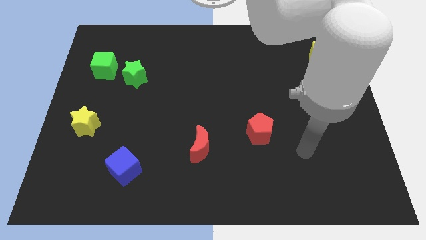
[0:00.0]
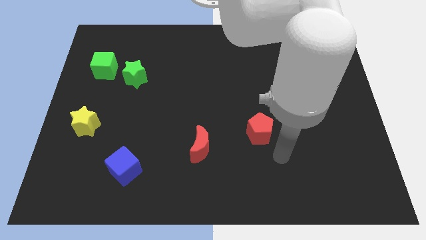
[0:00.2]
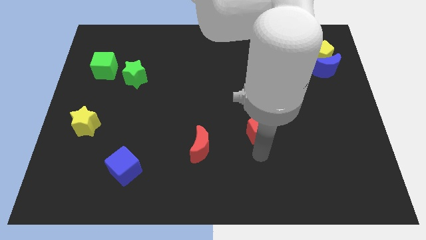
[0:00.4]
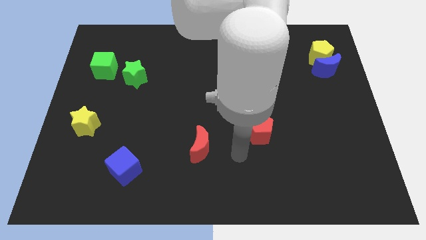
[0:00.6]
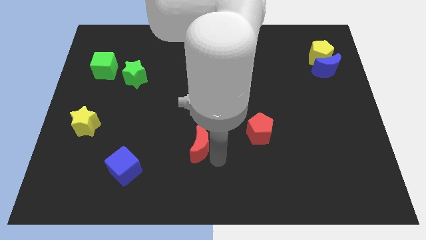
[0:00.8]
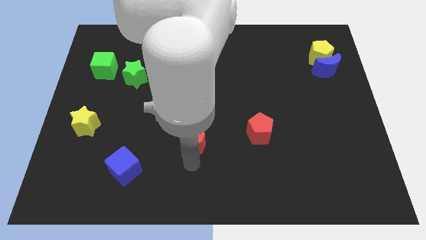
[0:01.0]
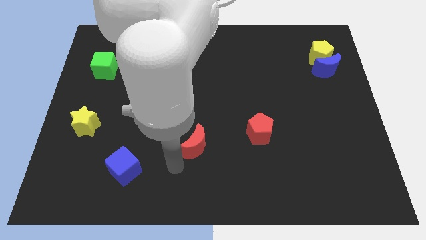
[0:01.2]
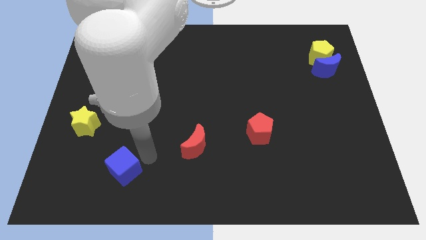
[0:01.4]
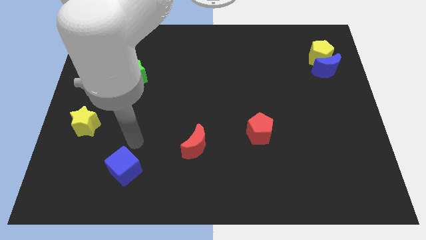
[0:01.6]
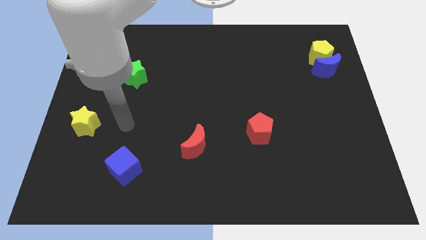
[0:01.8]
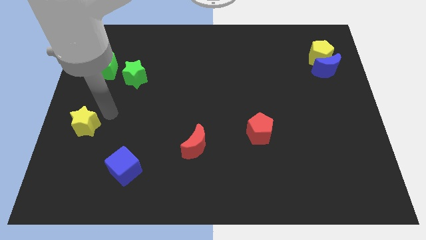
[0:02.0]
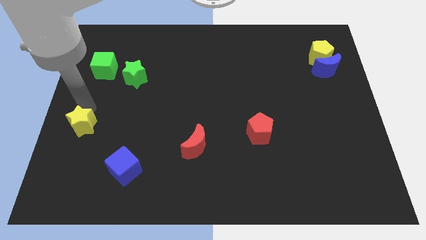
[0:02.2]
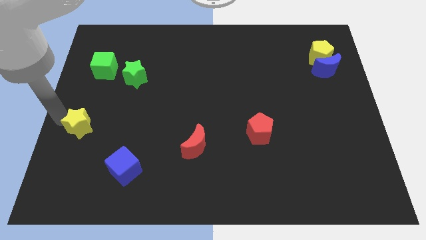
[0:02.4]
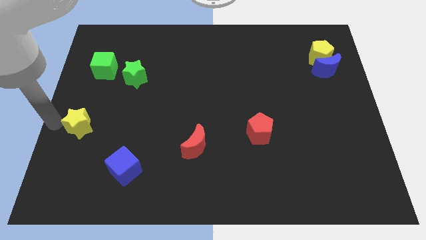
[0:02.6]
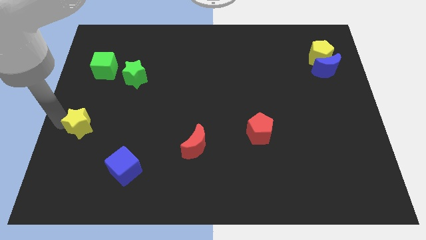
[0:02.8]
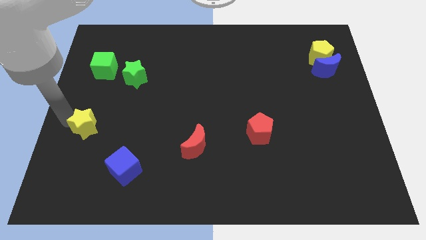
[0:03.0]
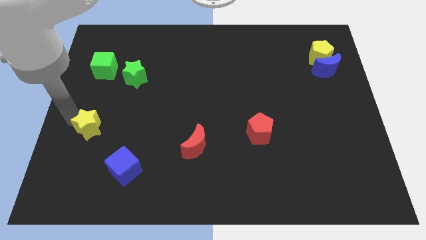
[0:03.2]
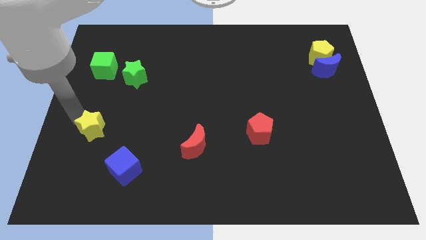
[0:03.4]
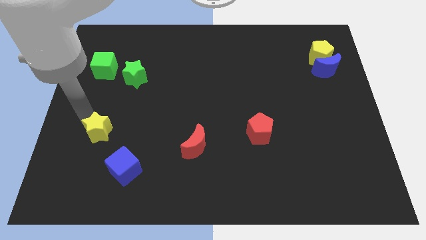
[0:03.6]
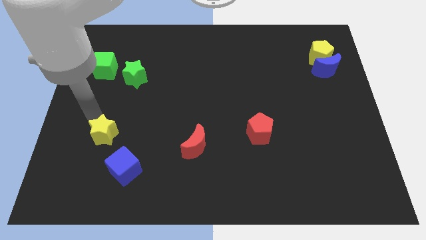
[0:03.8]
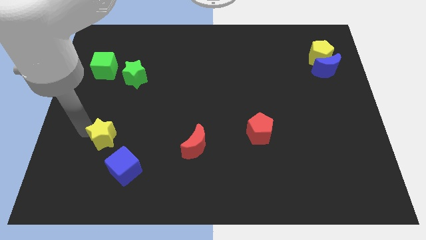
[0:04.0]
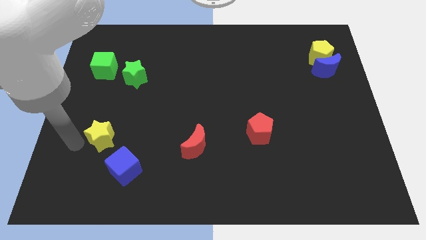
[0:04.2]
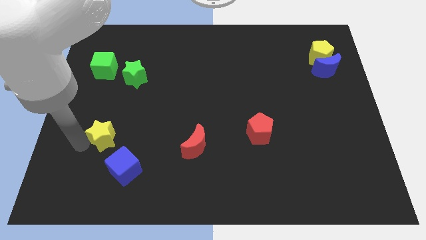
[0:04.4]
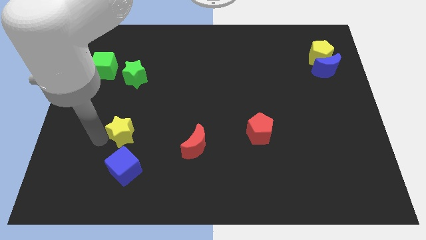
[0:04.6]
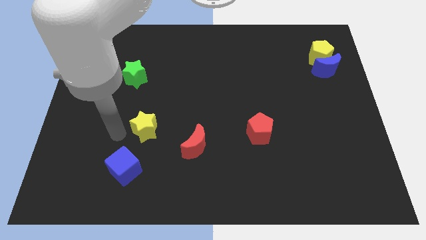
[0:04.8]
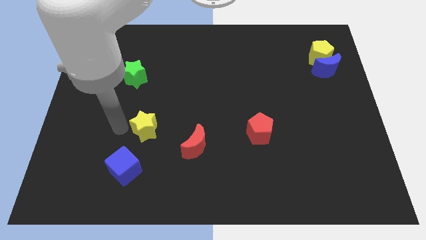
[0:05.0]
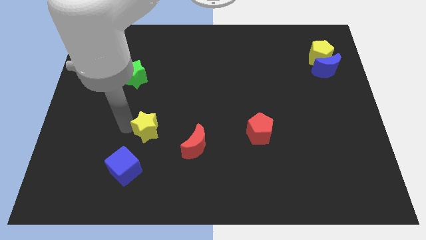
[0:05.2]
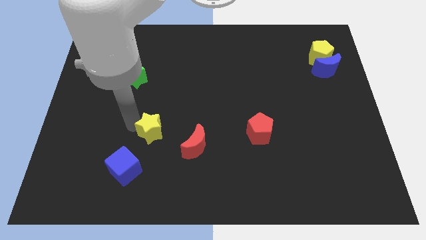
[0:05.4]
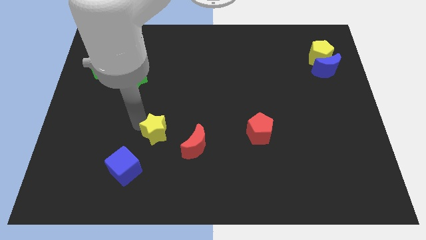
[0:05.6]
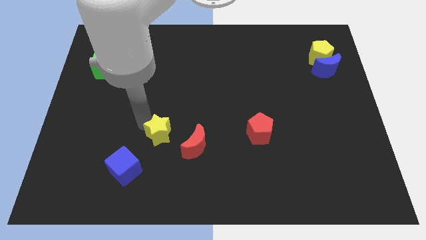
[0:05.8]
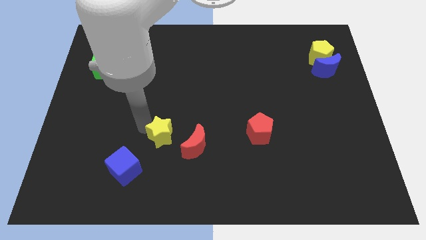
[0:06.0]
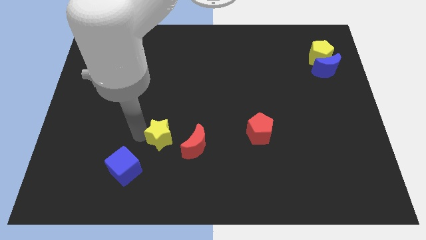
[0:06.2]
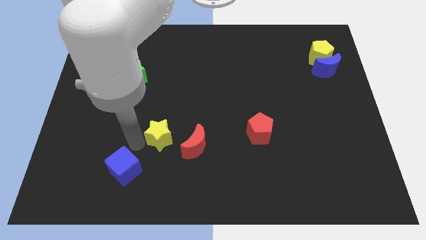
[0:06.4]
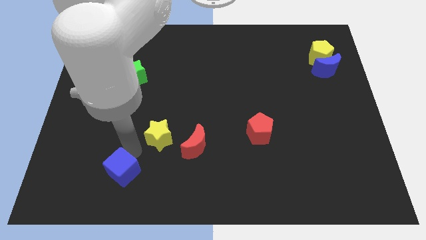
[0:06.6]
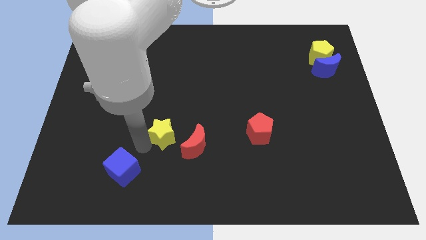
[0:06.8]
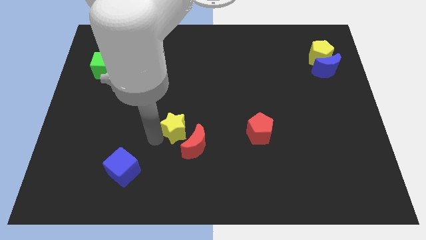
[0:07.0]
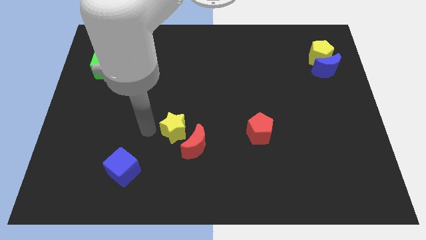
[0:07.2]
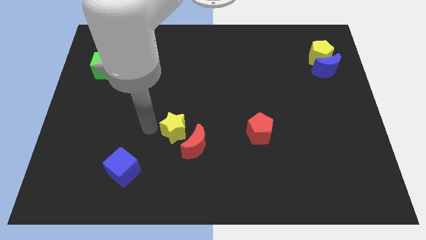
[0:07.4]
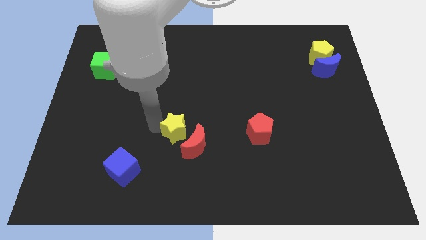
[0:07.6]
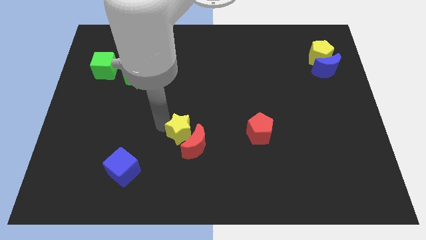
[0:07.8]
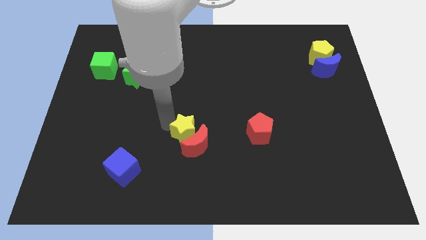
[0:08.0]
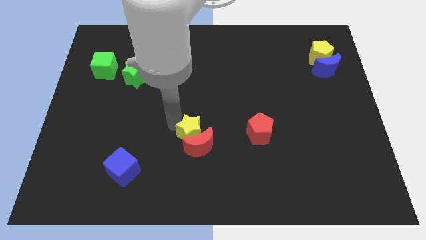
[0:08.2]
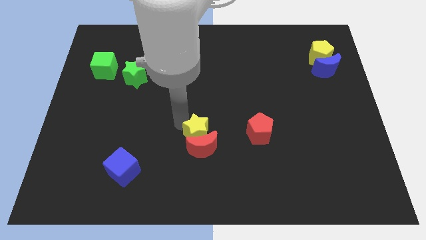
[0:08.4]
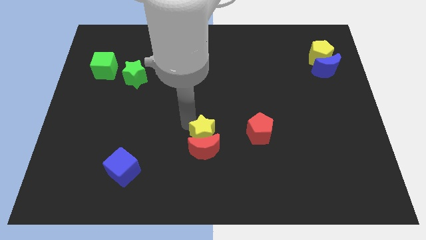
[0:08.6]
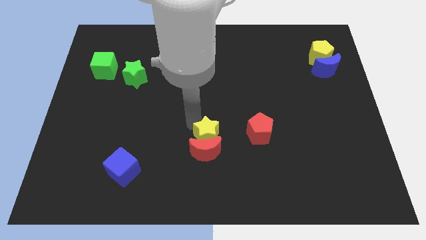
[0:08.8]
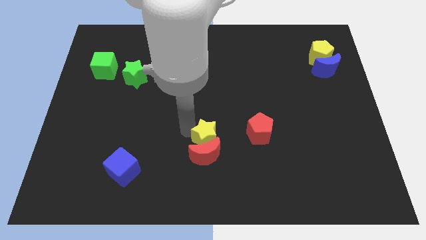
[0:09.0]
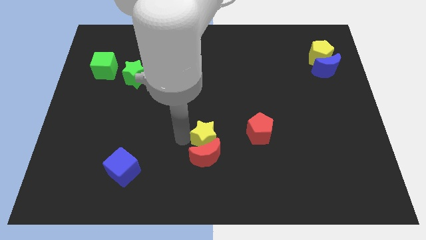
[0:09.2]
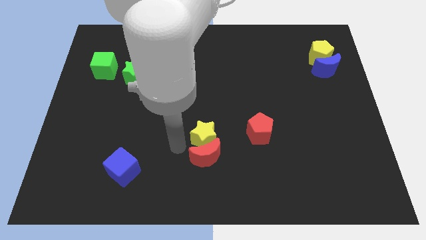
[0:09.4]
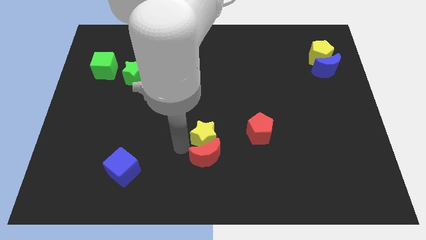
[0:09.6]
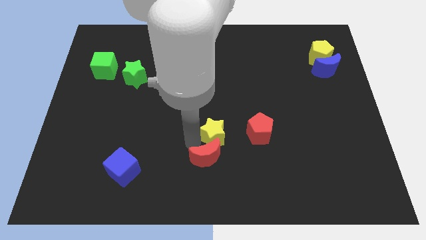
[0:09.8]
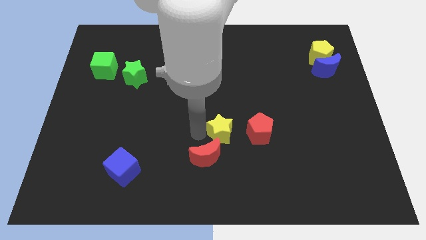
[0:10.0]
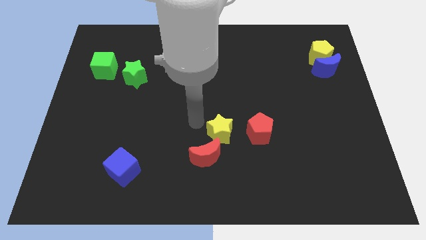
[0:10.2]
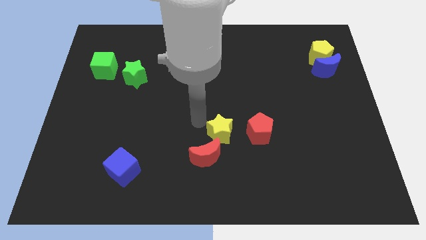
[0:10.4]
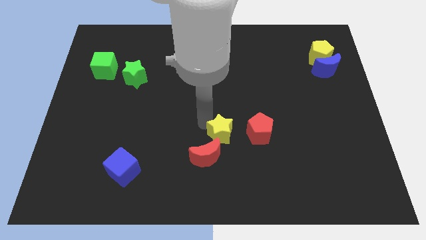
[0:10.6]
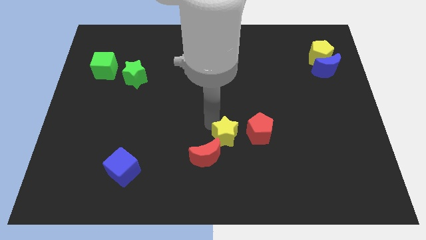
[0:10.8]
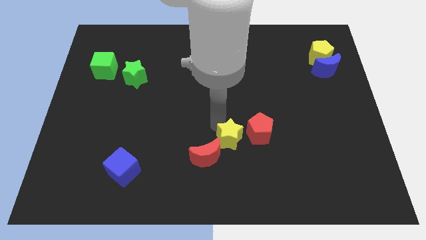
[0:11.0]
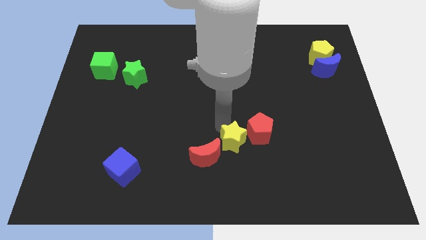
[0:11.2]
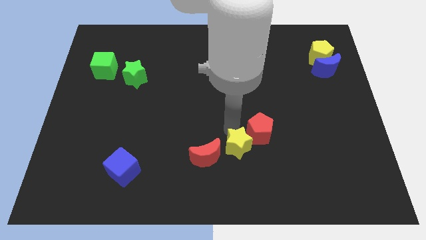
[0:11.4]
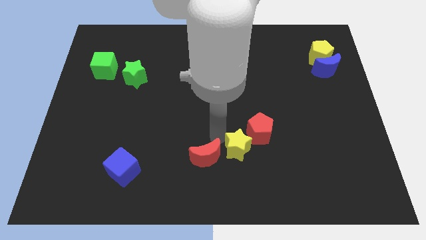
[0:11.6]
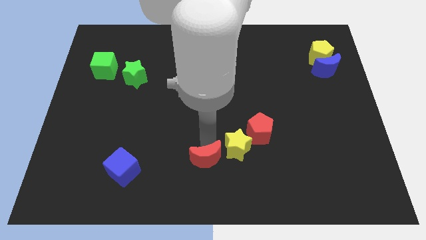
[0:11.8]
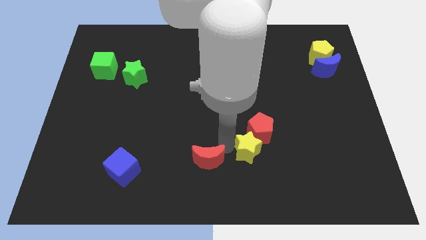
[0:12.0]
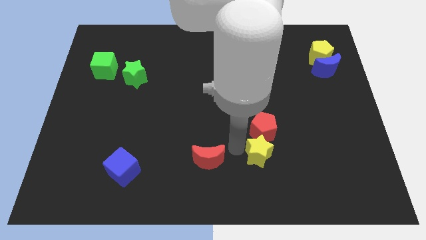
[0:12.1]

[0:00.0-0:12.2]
move the yellow star to the bottom right of the red pentagon

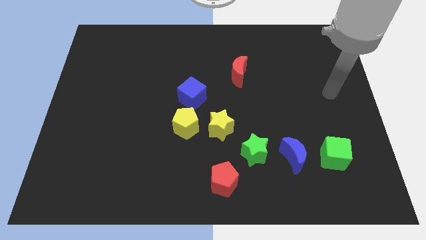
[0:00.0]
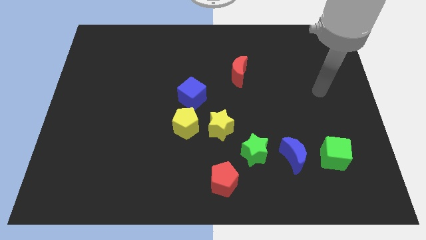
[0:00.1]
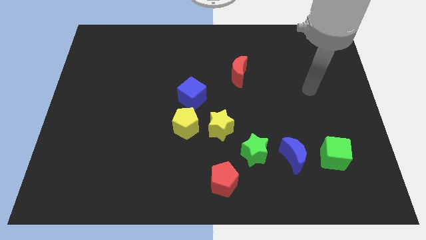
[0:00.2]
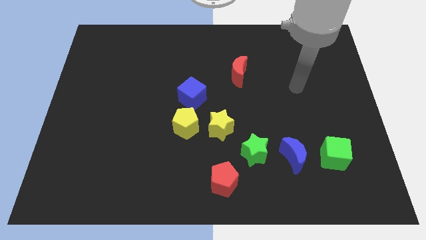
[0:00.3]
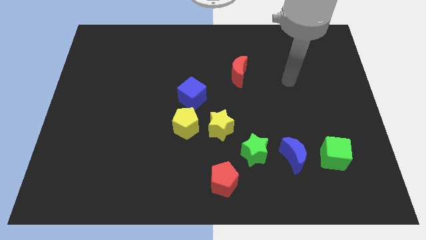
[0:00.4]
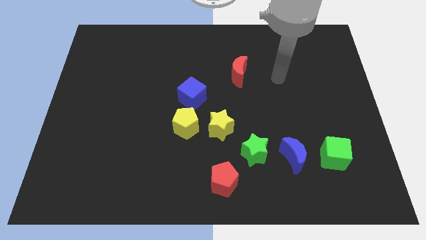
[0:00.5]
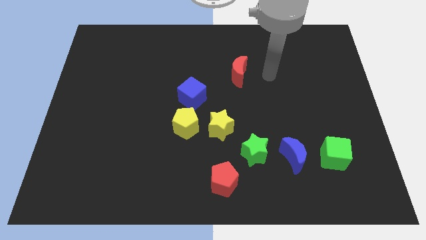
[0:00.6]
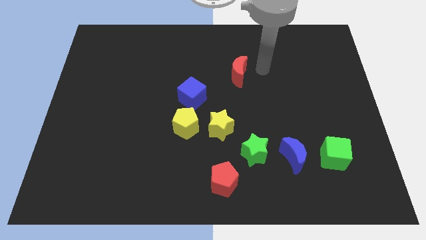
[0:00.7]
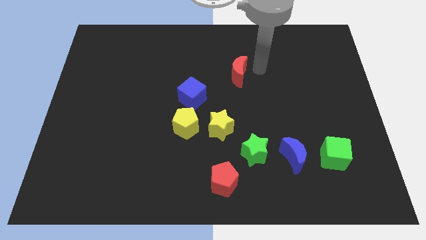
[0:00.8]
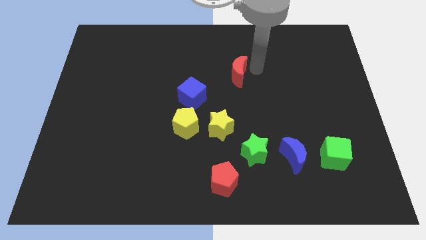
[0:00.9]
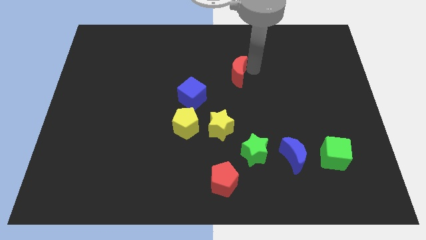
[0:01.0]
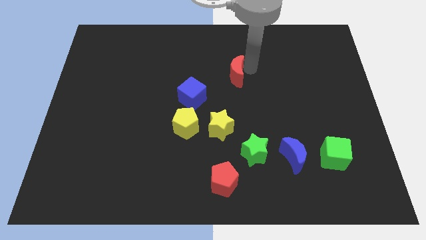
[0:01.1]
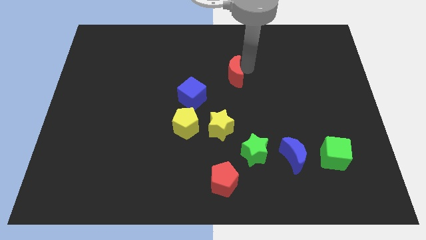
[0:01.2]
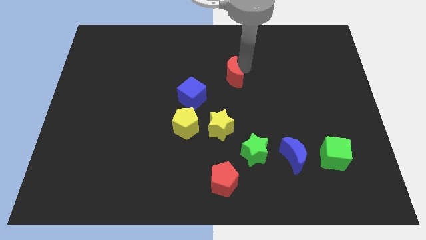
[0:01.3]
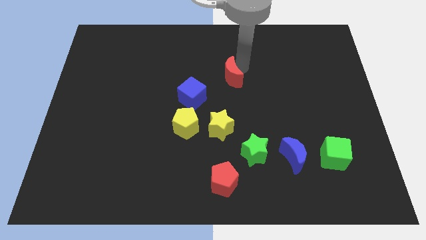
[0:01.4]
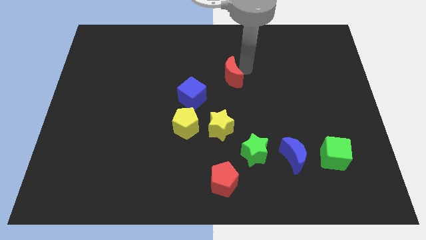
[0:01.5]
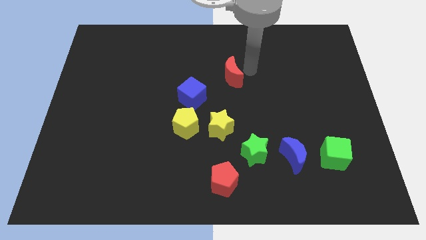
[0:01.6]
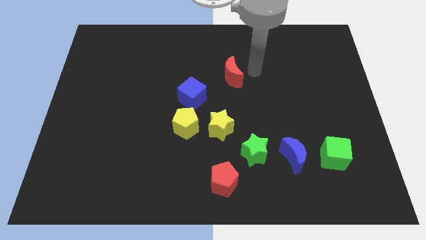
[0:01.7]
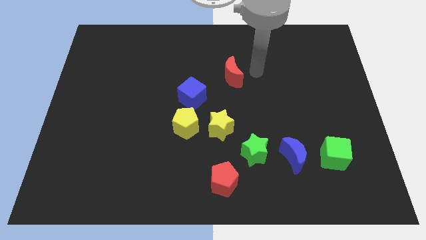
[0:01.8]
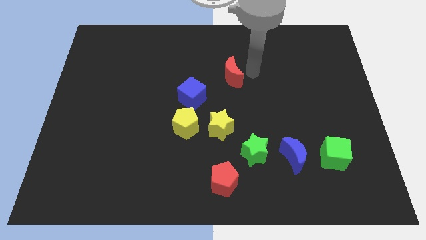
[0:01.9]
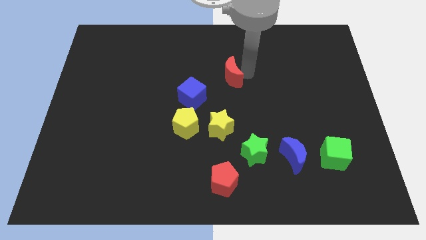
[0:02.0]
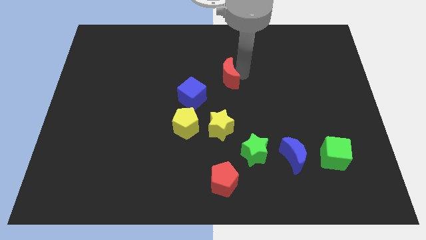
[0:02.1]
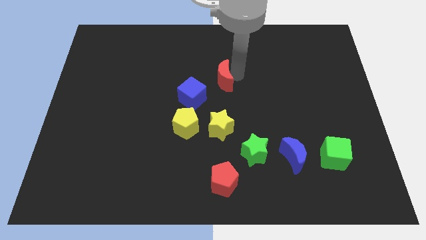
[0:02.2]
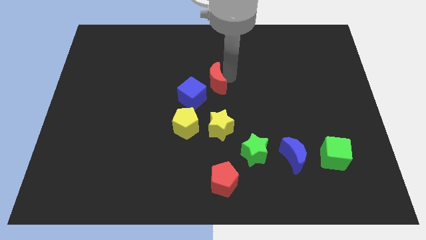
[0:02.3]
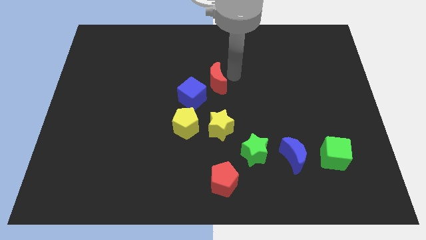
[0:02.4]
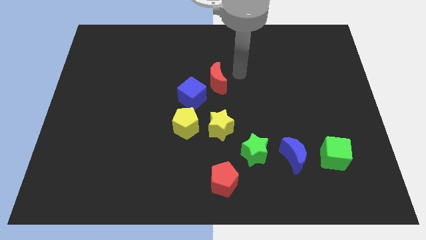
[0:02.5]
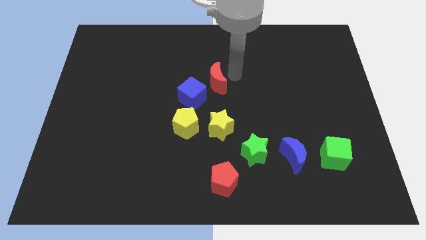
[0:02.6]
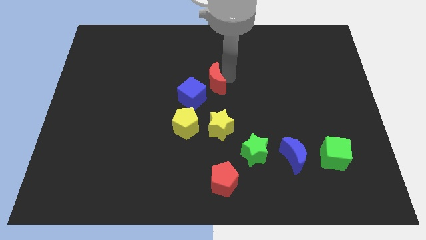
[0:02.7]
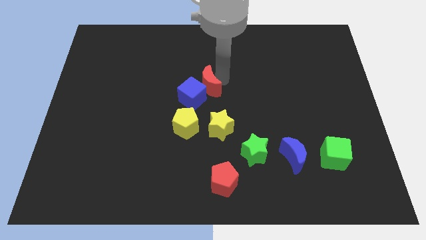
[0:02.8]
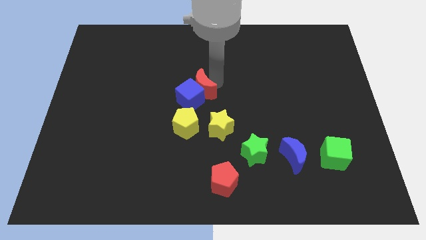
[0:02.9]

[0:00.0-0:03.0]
push the red moon to the top side of the yellow pentagon
